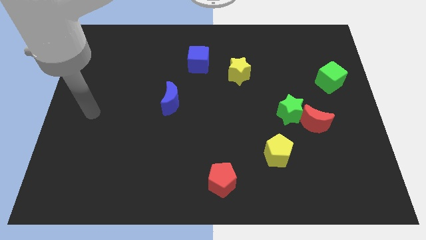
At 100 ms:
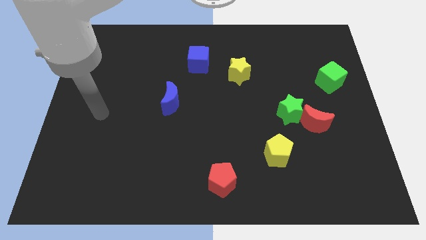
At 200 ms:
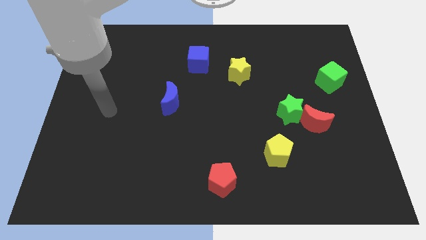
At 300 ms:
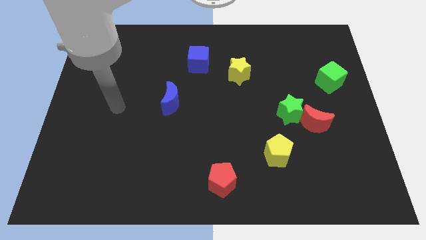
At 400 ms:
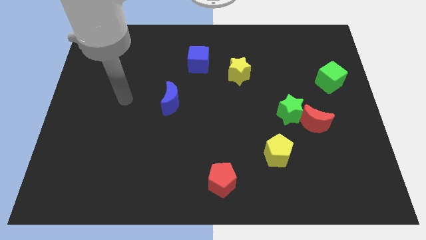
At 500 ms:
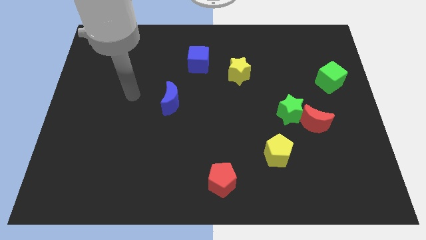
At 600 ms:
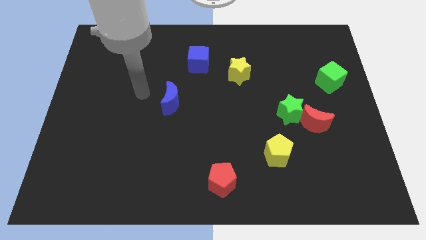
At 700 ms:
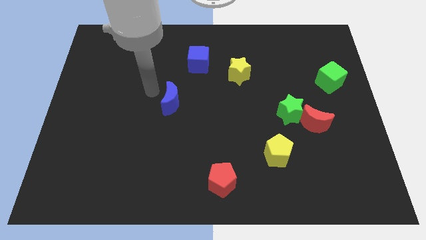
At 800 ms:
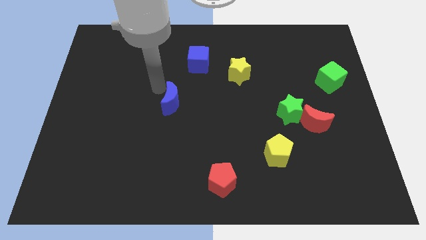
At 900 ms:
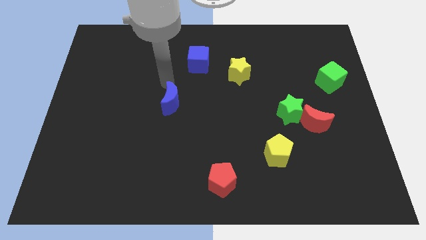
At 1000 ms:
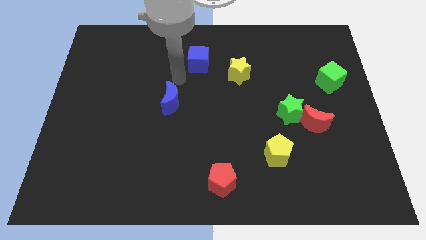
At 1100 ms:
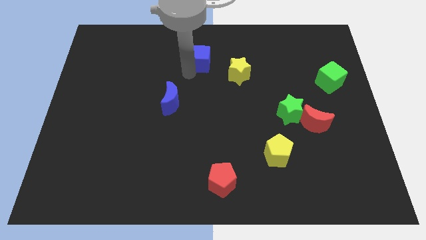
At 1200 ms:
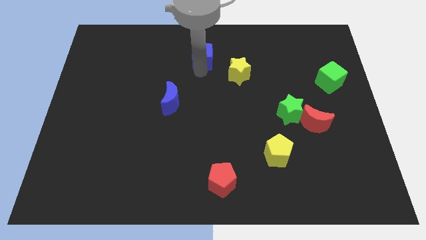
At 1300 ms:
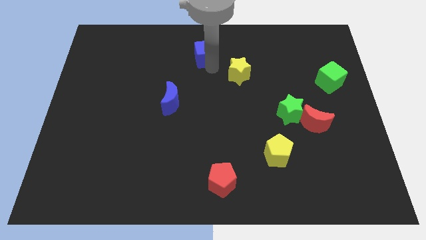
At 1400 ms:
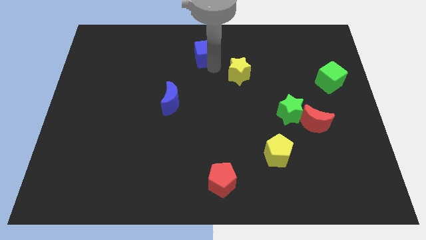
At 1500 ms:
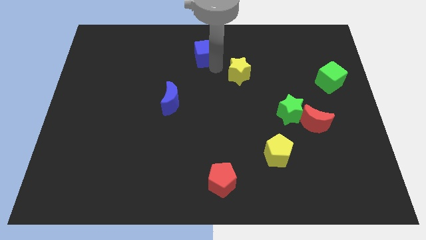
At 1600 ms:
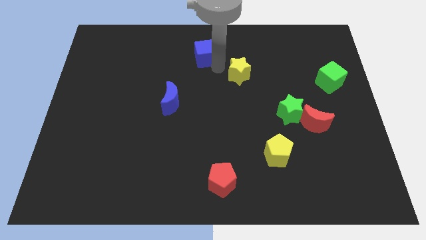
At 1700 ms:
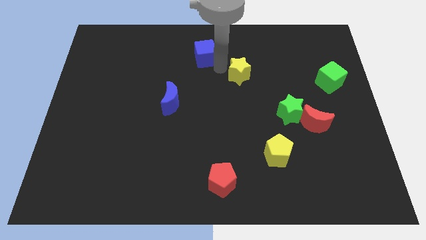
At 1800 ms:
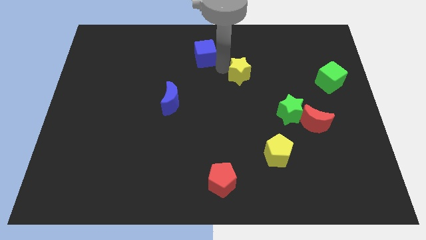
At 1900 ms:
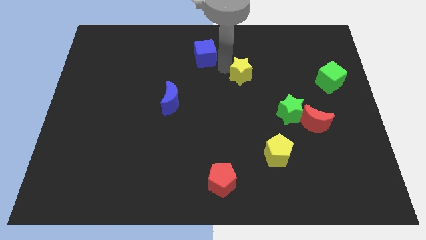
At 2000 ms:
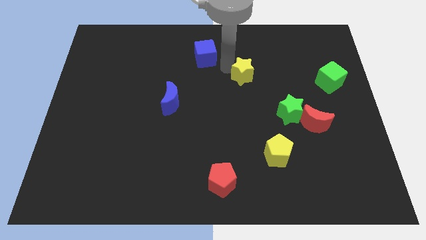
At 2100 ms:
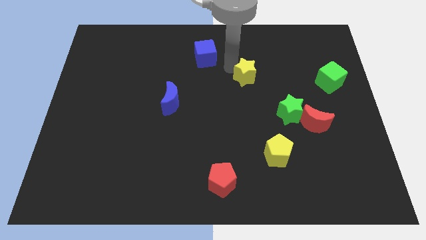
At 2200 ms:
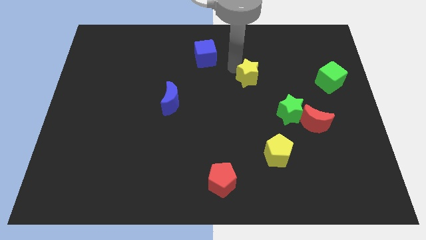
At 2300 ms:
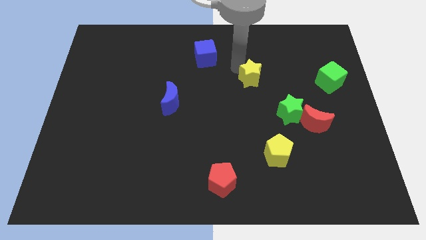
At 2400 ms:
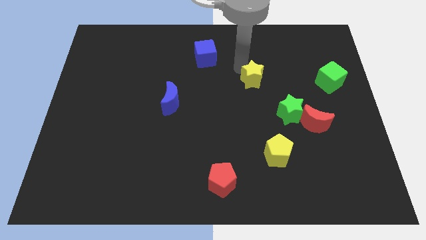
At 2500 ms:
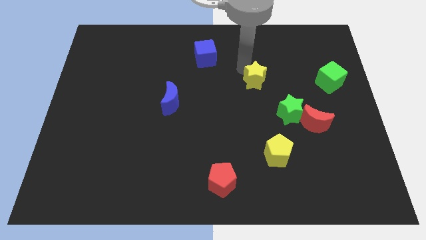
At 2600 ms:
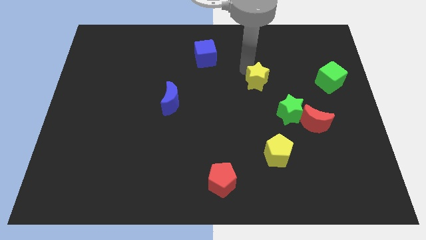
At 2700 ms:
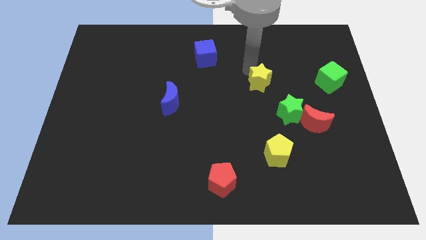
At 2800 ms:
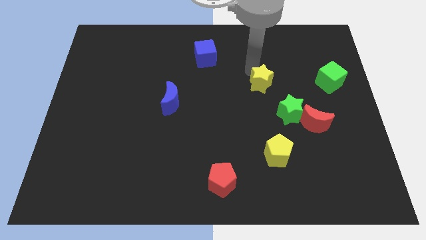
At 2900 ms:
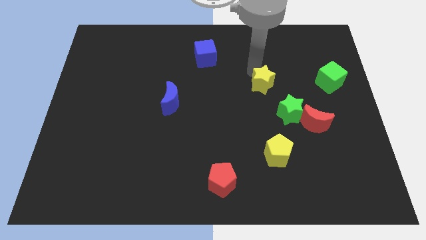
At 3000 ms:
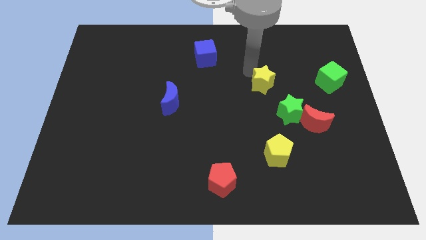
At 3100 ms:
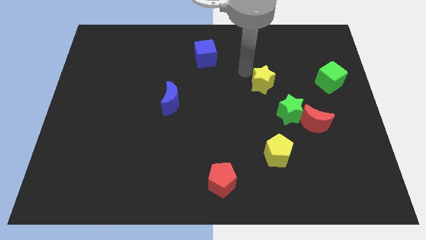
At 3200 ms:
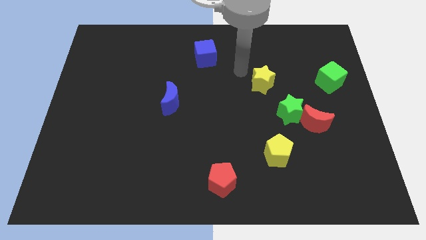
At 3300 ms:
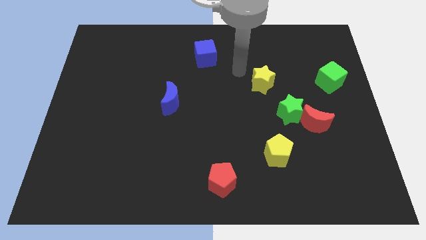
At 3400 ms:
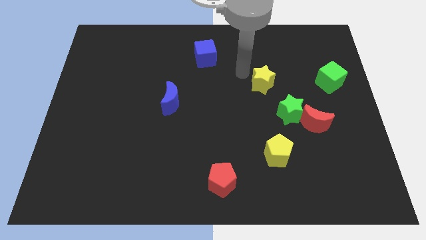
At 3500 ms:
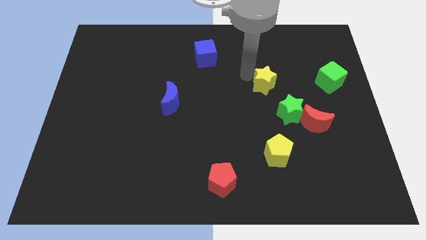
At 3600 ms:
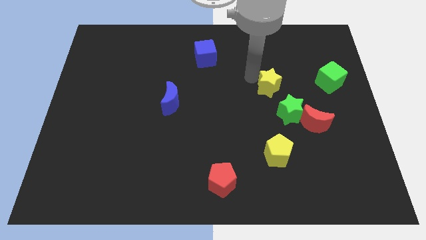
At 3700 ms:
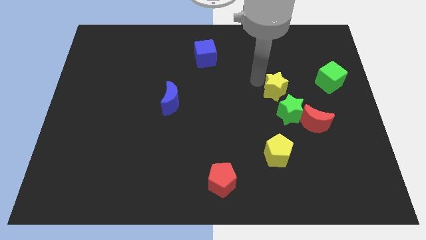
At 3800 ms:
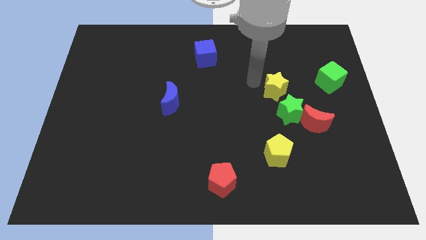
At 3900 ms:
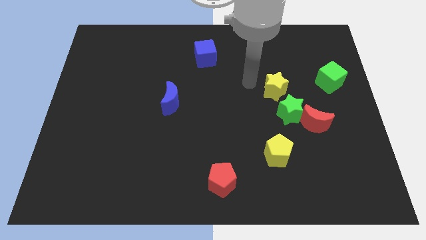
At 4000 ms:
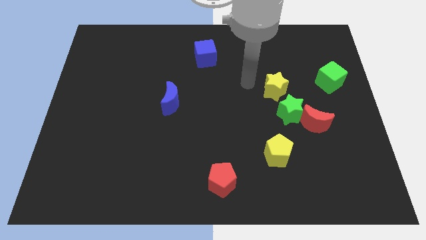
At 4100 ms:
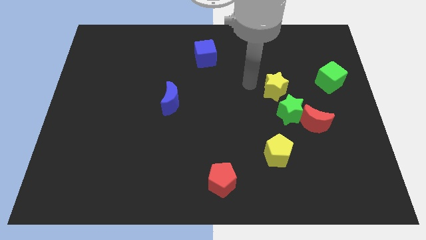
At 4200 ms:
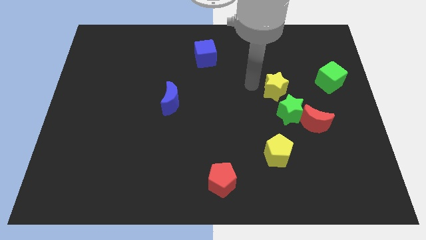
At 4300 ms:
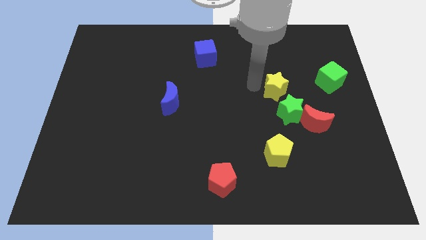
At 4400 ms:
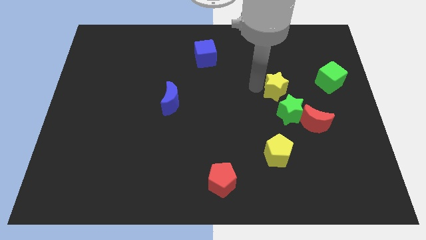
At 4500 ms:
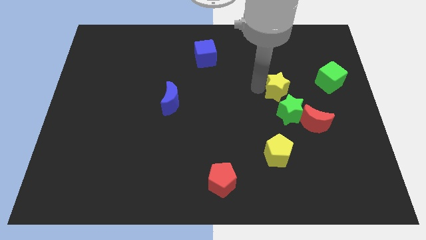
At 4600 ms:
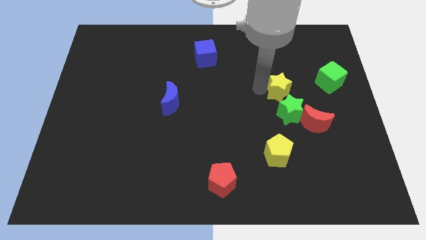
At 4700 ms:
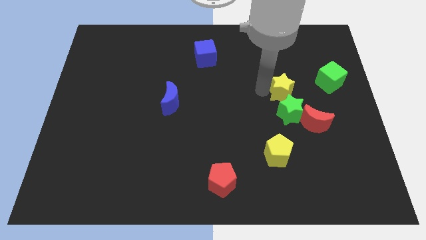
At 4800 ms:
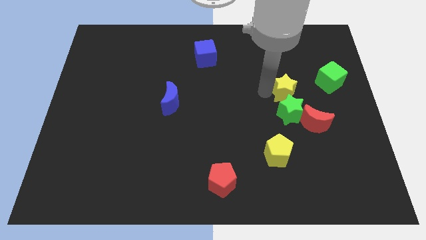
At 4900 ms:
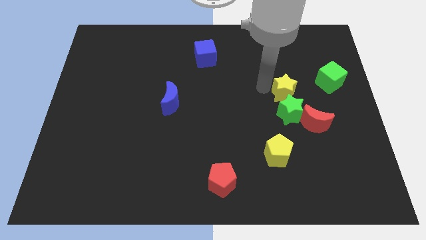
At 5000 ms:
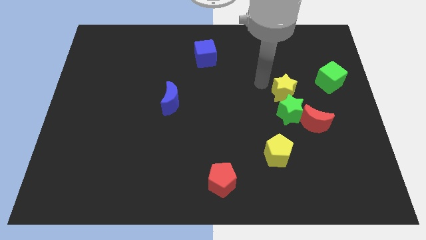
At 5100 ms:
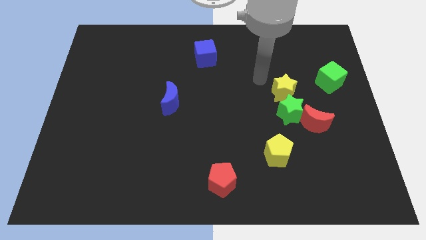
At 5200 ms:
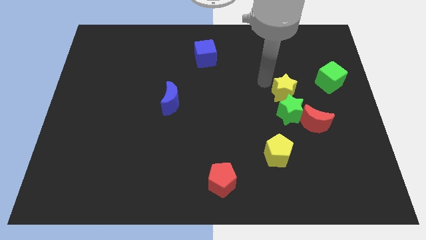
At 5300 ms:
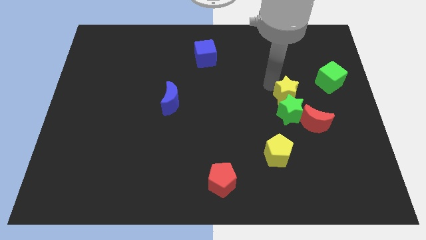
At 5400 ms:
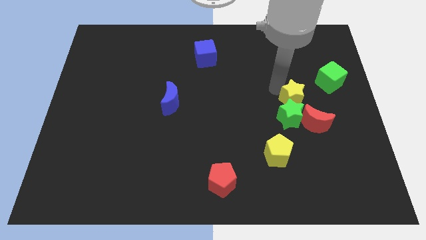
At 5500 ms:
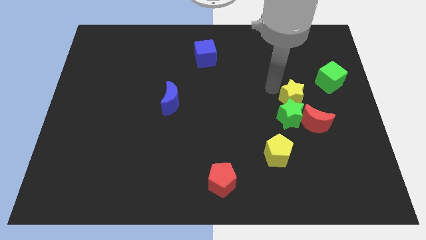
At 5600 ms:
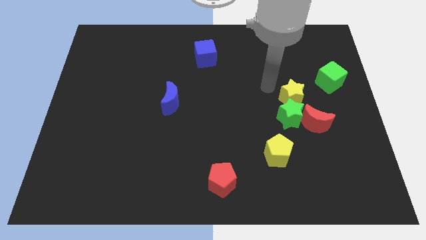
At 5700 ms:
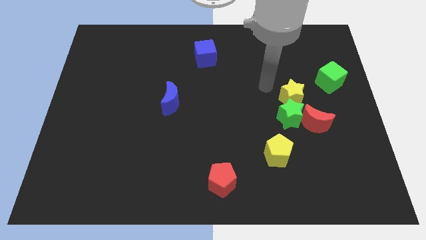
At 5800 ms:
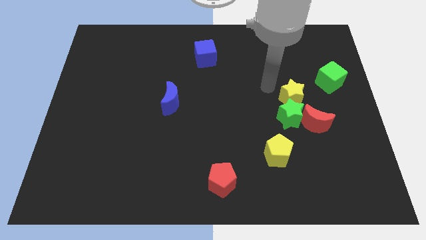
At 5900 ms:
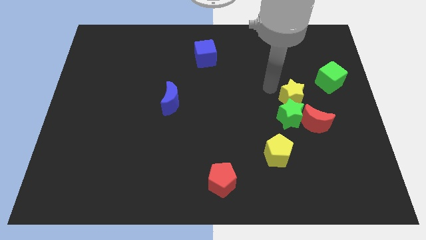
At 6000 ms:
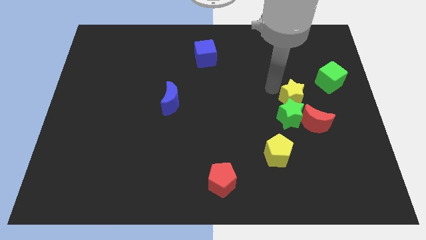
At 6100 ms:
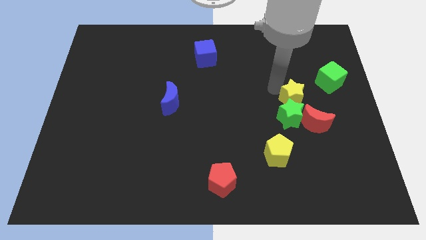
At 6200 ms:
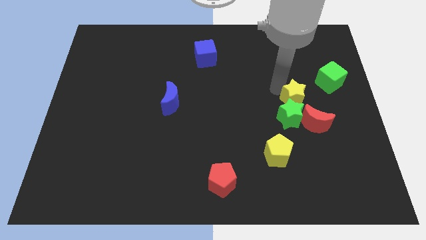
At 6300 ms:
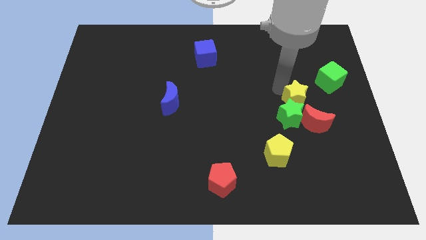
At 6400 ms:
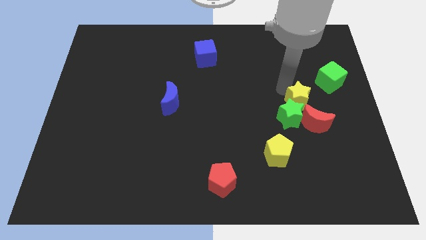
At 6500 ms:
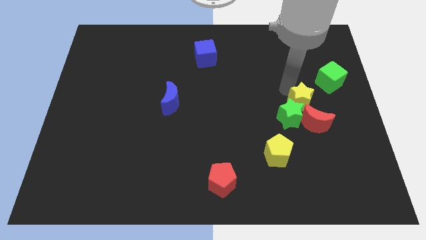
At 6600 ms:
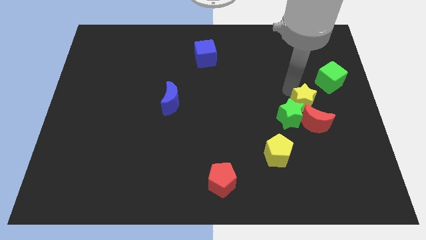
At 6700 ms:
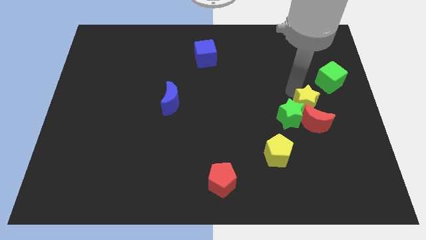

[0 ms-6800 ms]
put the yellow star towards the red moon

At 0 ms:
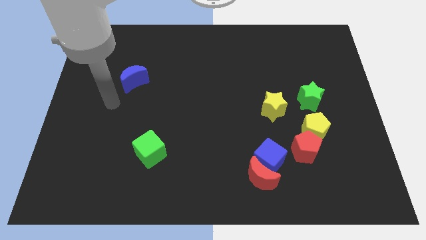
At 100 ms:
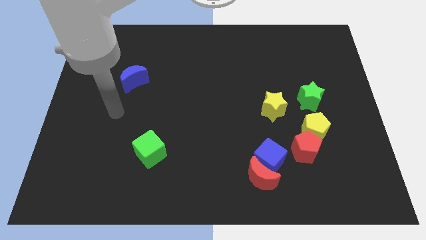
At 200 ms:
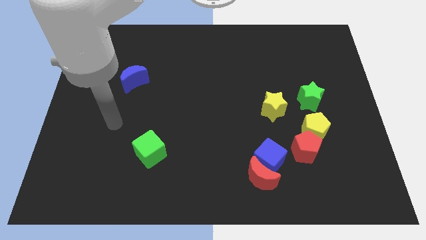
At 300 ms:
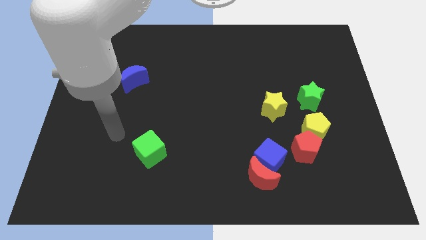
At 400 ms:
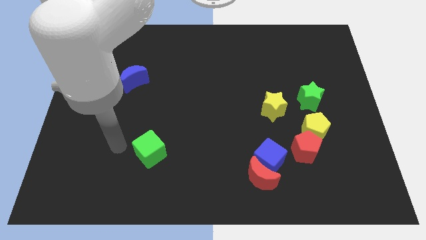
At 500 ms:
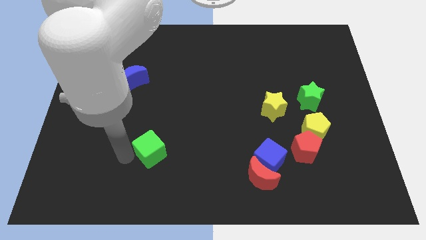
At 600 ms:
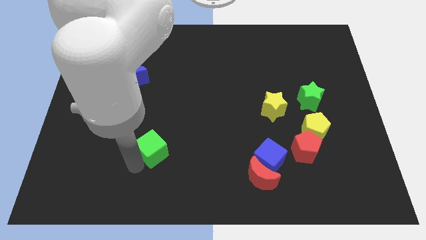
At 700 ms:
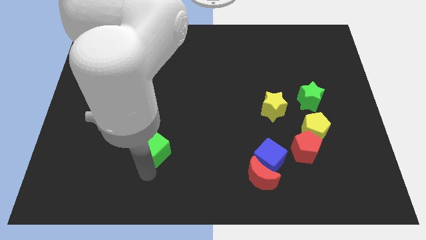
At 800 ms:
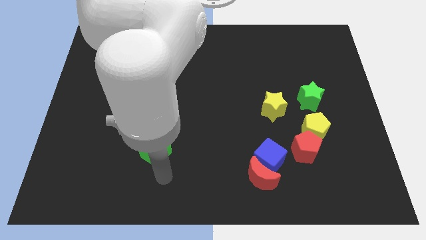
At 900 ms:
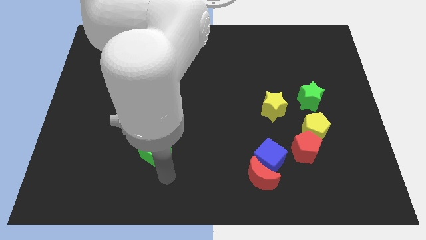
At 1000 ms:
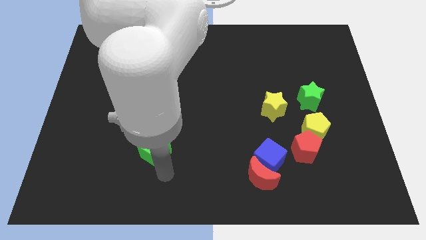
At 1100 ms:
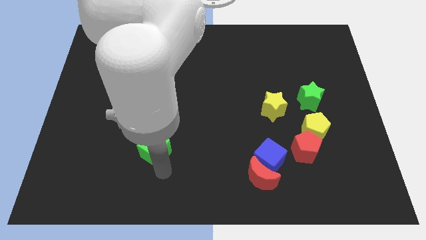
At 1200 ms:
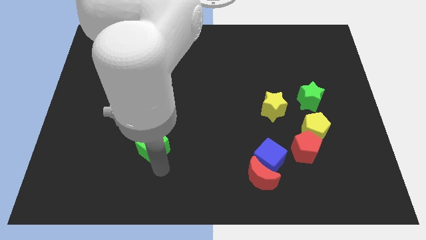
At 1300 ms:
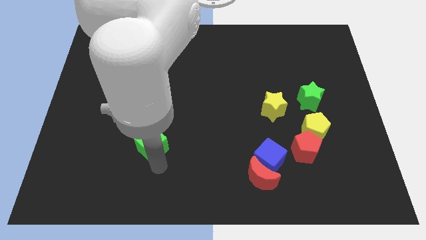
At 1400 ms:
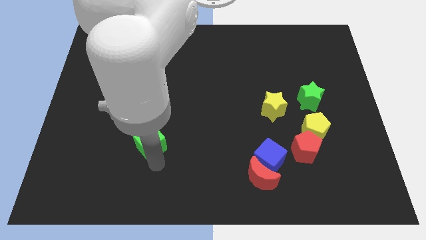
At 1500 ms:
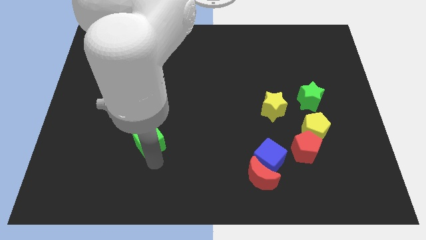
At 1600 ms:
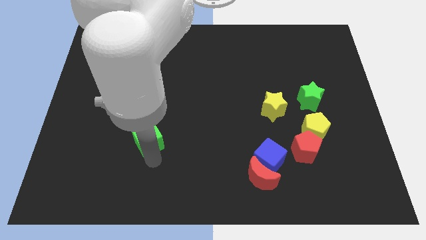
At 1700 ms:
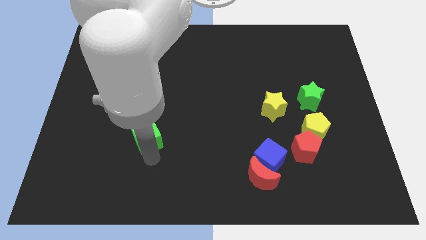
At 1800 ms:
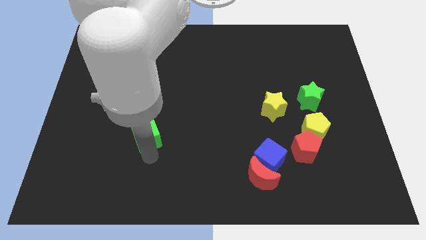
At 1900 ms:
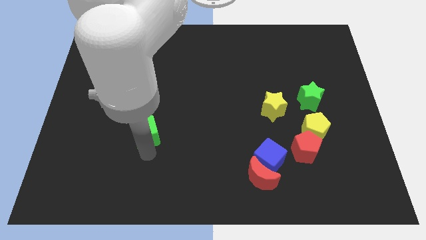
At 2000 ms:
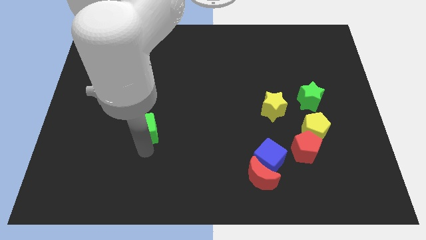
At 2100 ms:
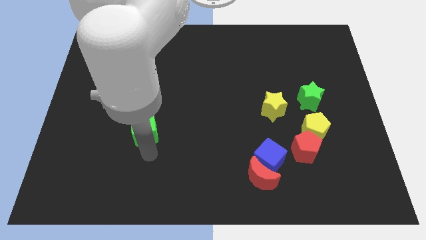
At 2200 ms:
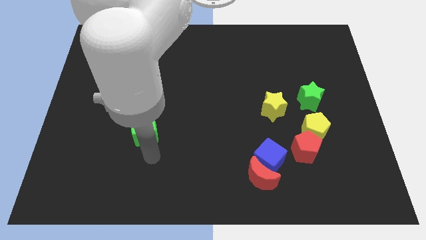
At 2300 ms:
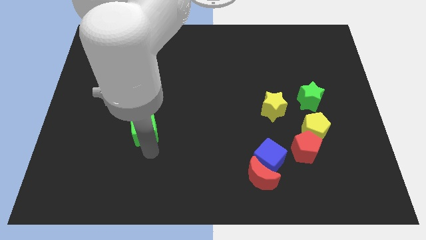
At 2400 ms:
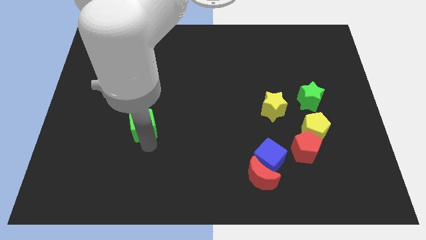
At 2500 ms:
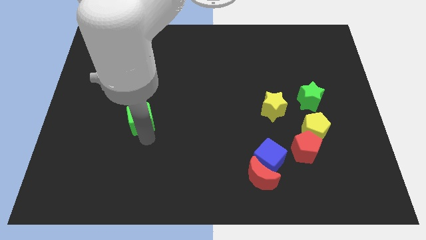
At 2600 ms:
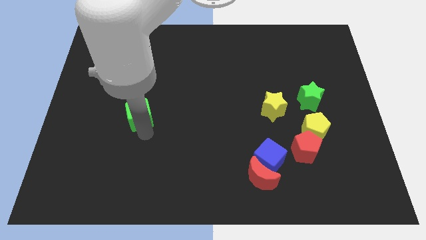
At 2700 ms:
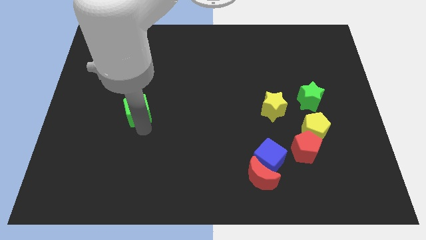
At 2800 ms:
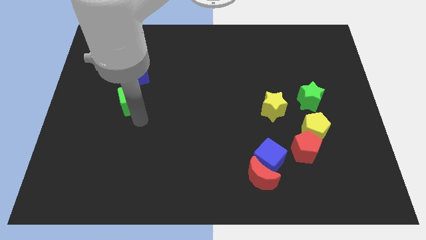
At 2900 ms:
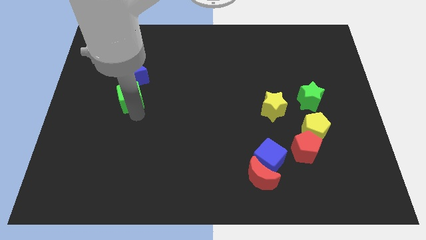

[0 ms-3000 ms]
slide the green cube to the blue moon
